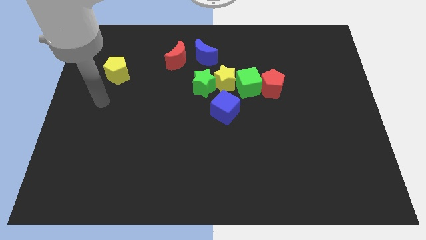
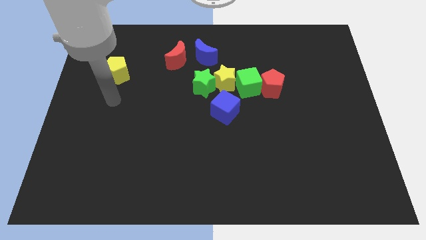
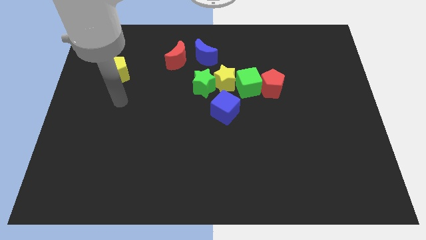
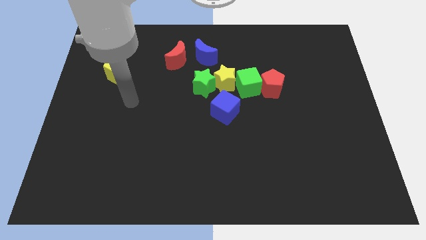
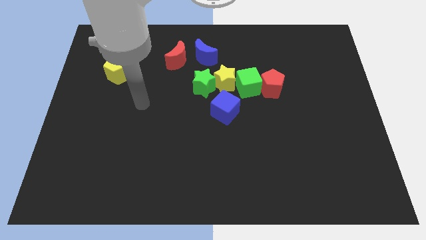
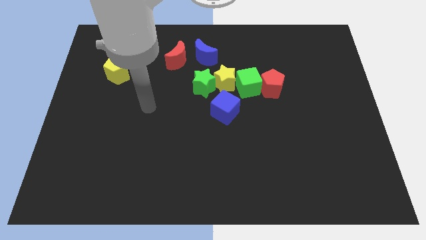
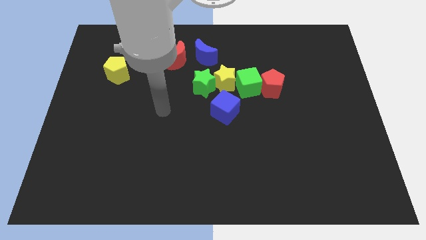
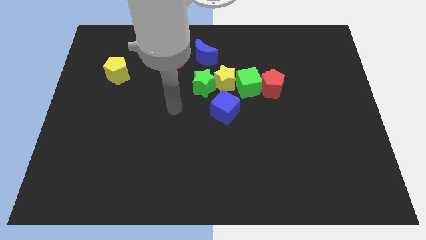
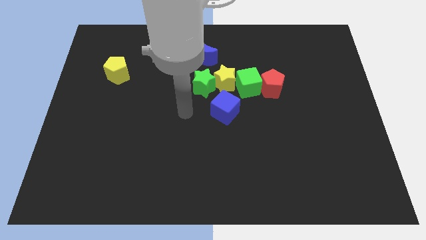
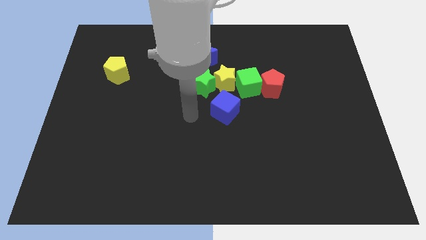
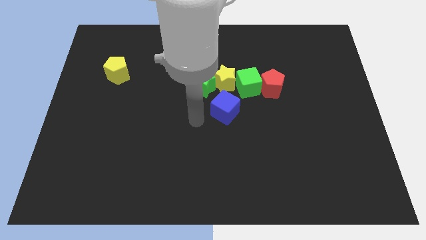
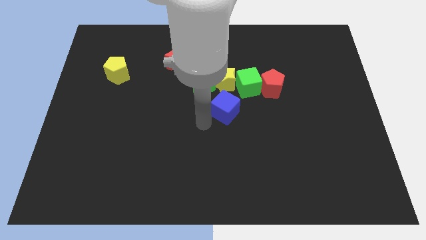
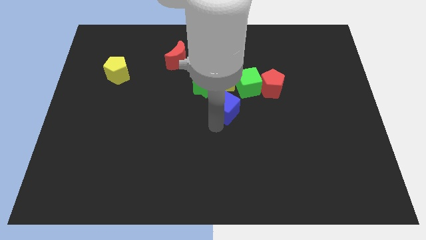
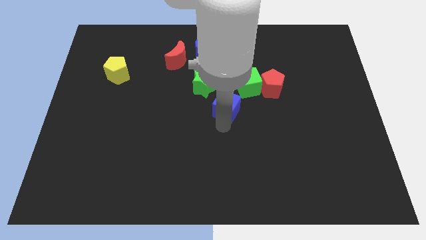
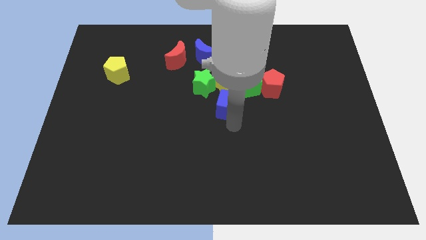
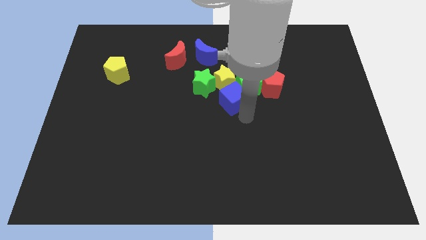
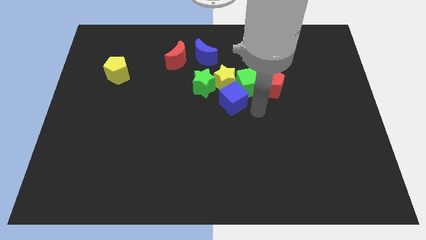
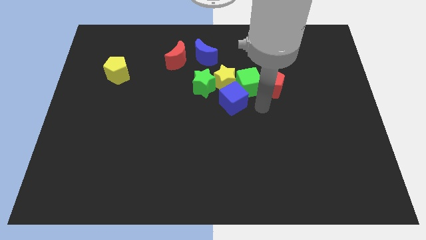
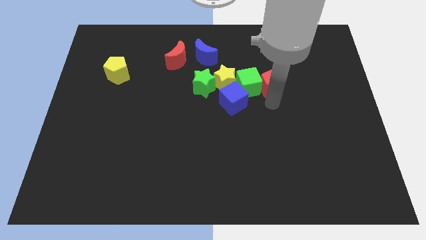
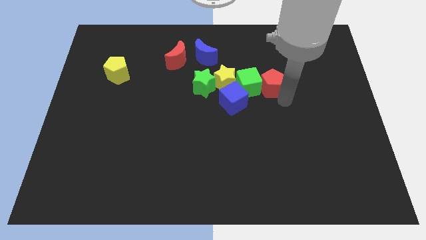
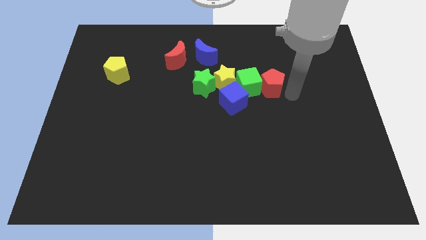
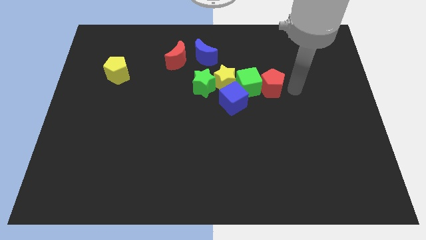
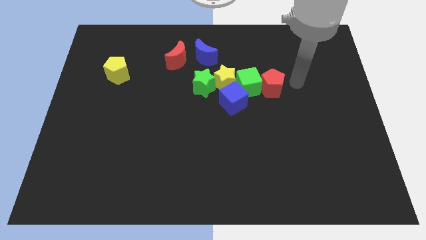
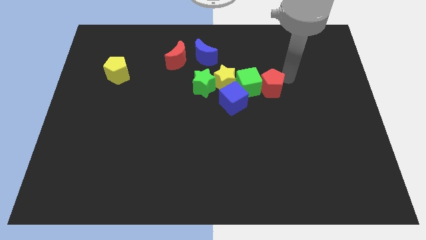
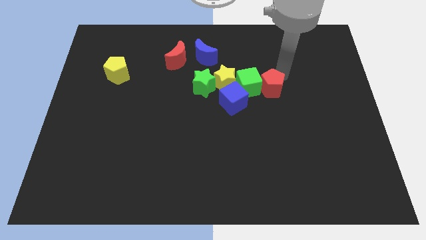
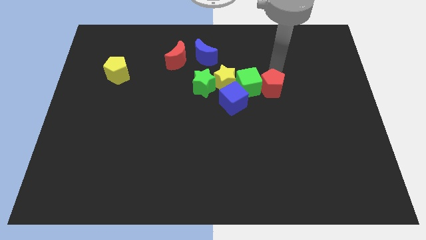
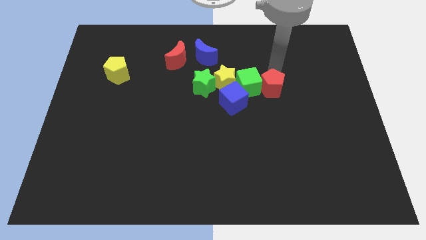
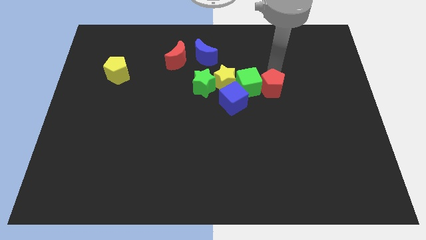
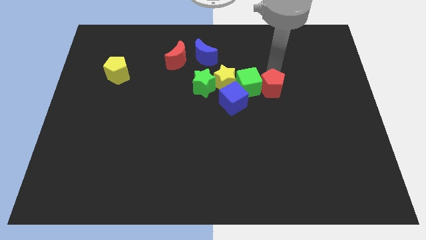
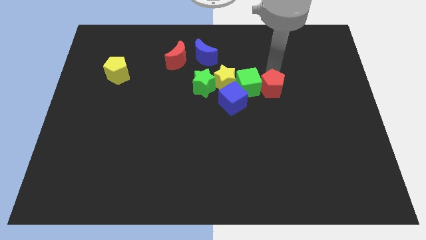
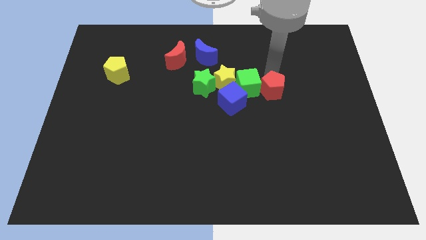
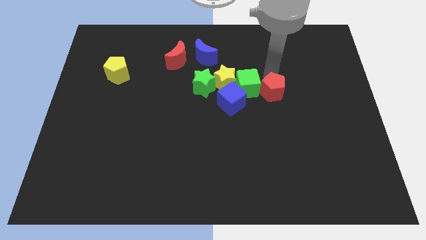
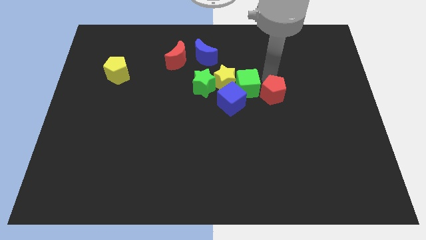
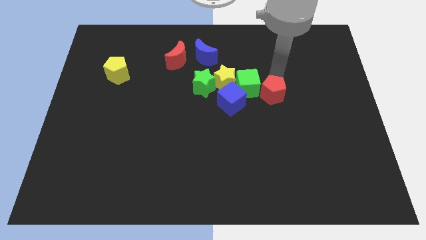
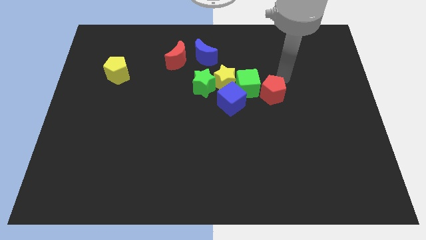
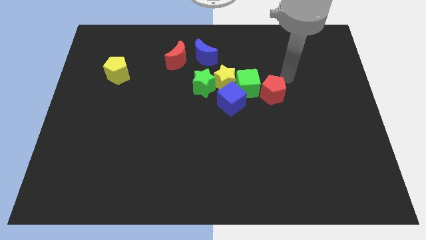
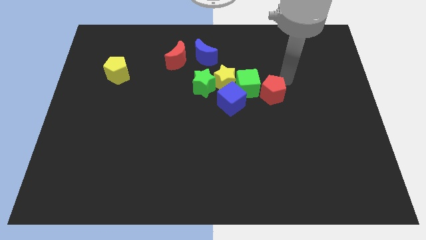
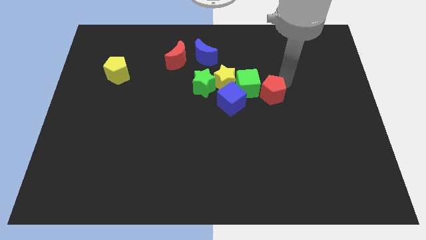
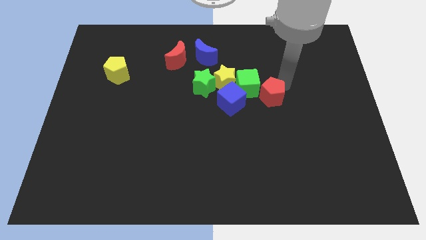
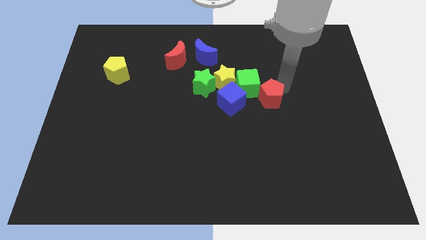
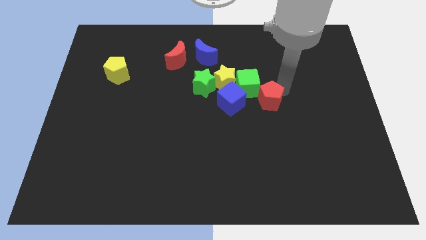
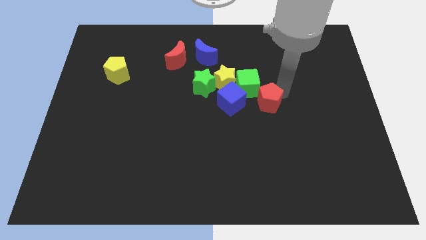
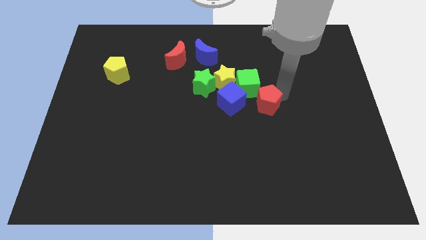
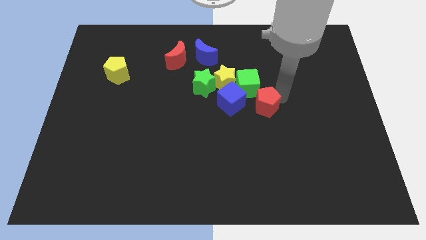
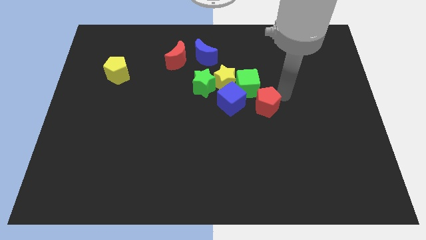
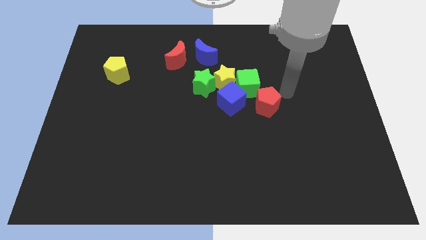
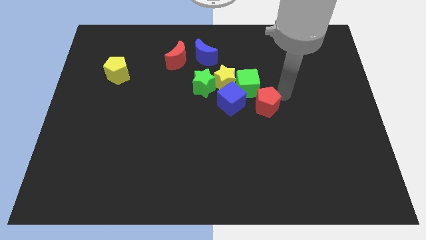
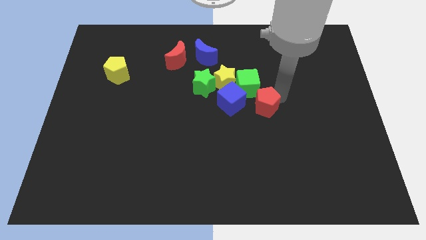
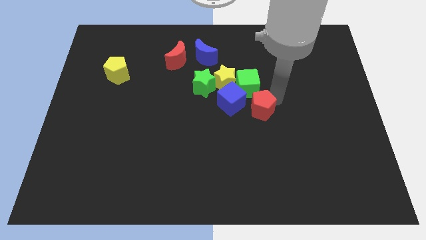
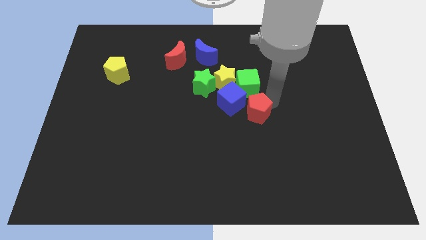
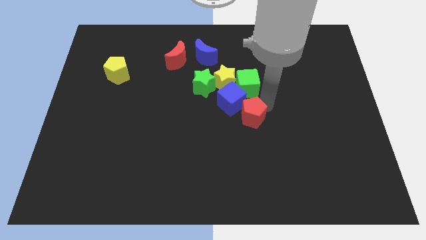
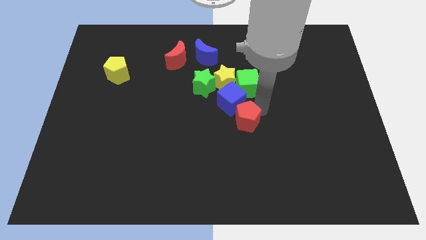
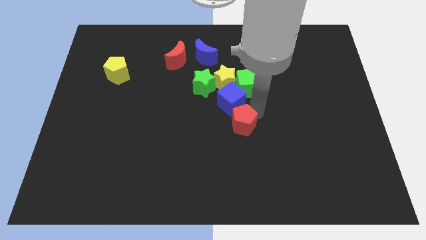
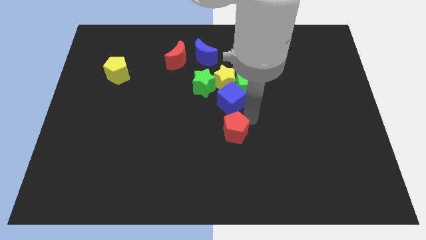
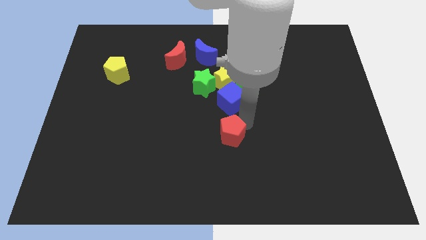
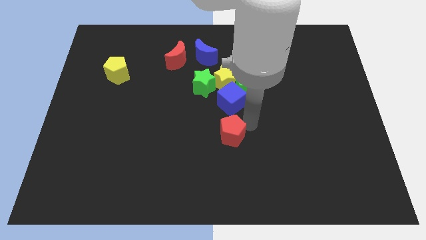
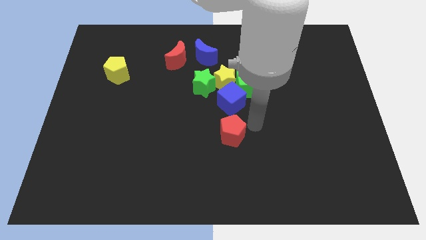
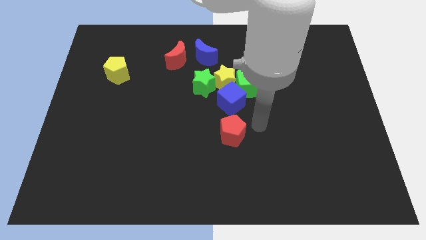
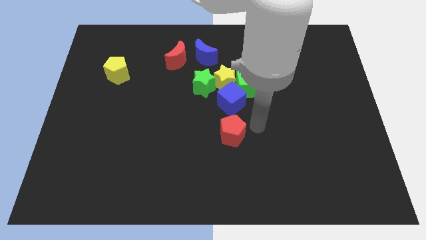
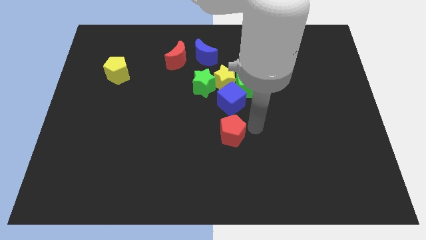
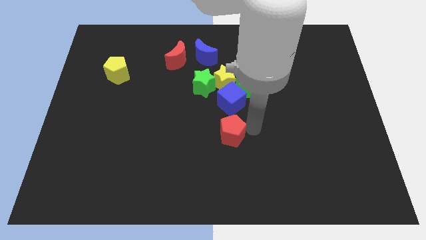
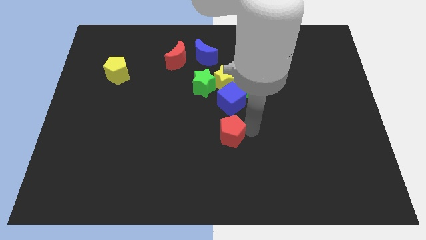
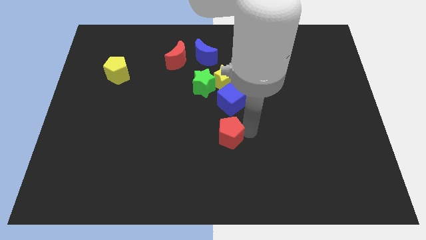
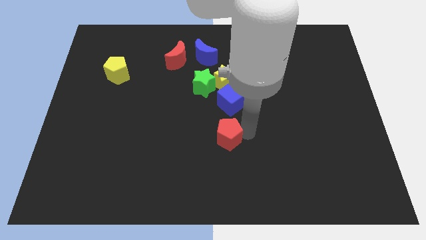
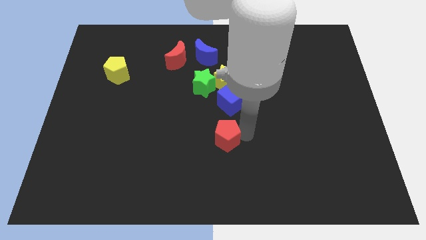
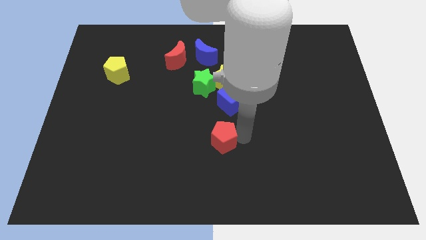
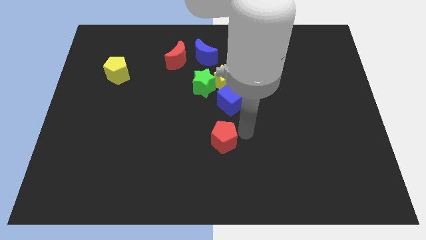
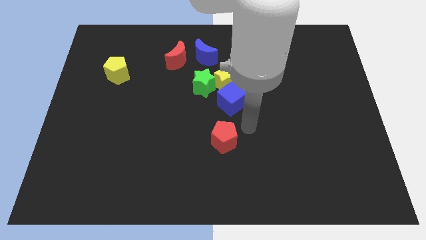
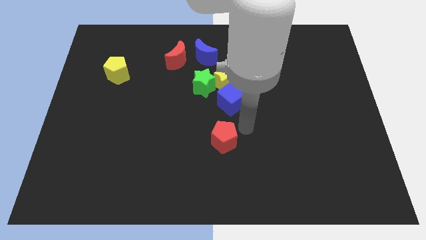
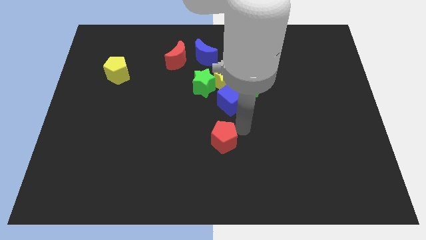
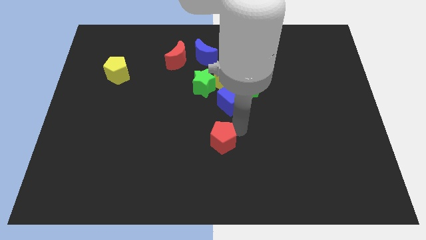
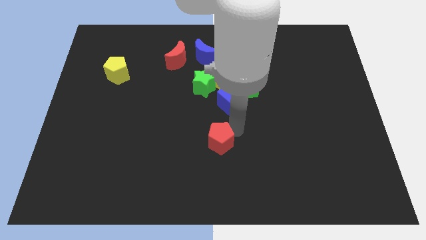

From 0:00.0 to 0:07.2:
move the red pentagon down and left

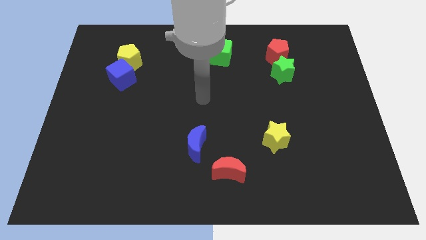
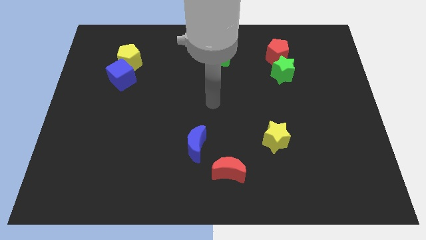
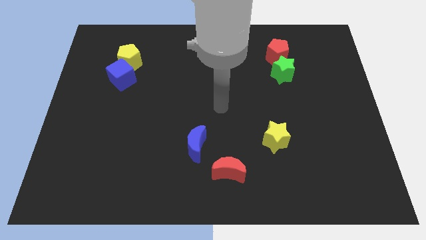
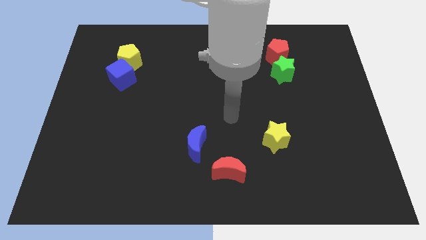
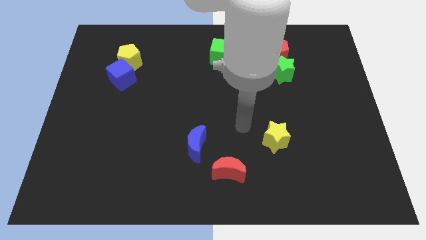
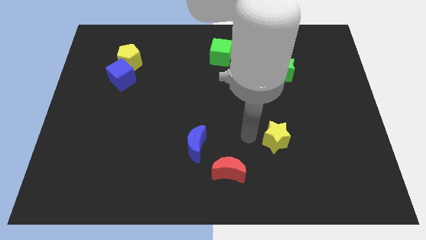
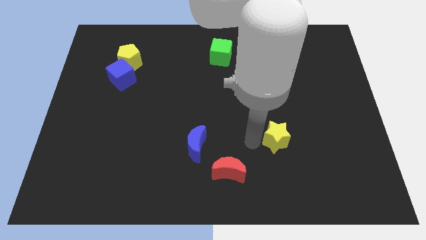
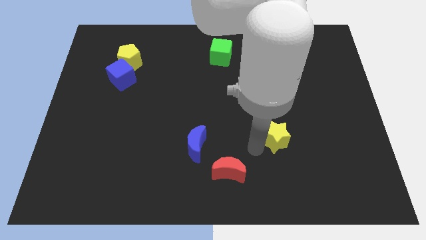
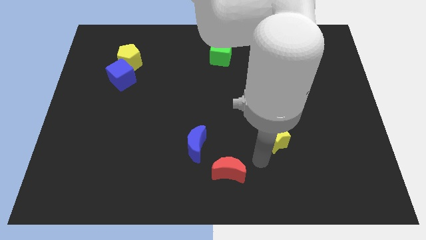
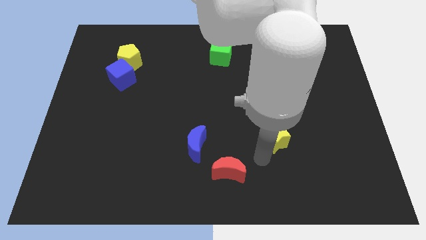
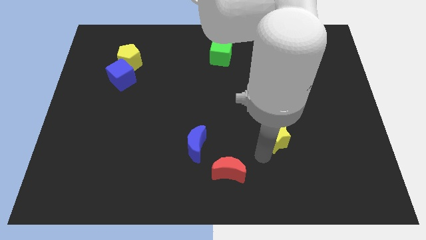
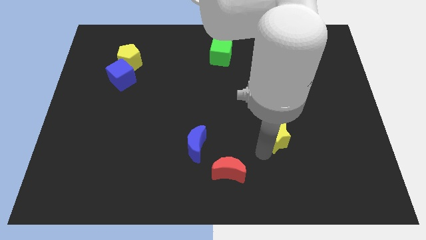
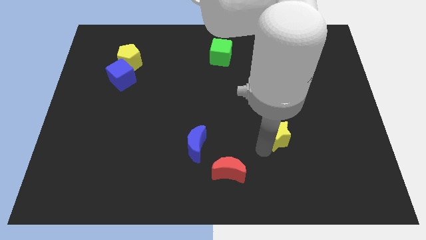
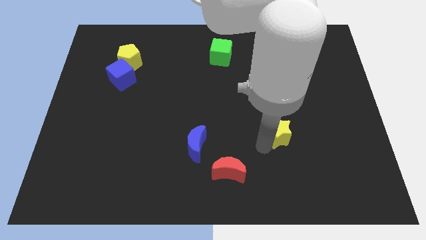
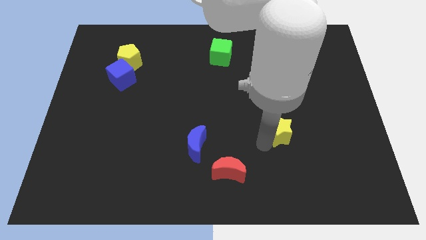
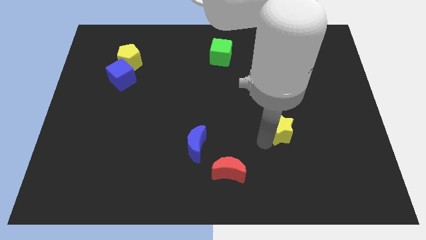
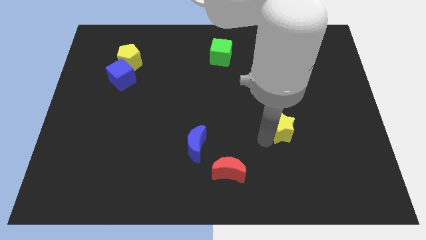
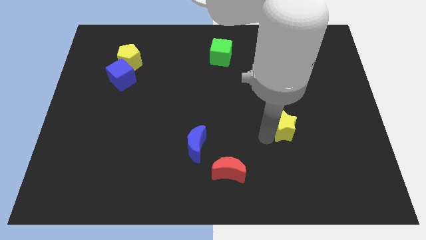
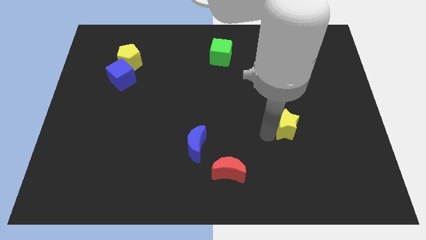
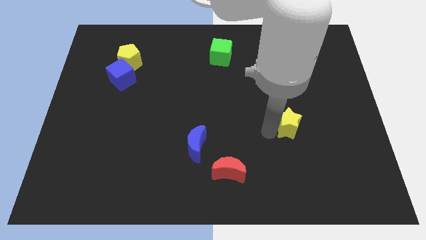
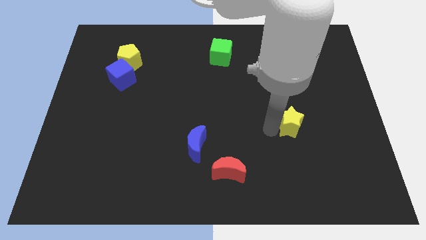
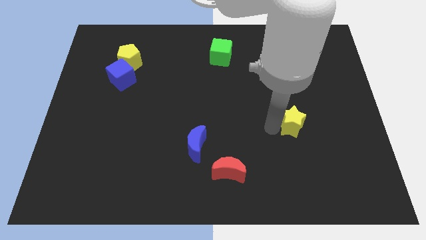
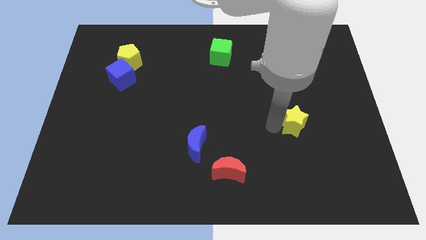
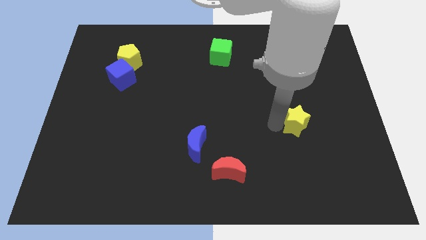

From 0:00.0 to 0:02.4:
slightly slide the yellow star upwards and then right
